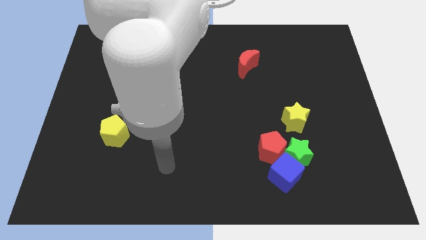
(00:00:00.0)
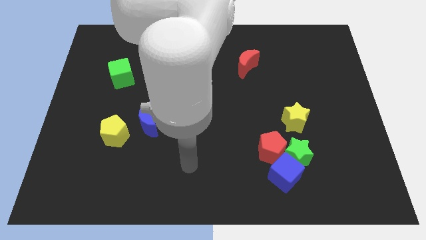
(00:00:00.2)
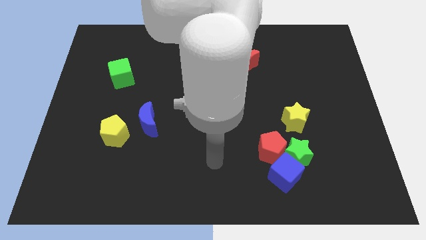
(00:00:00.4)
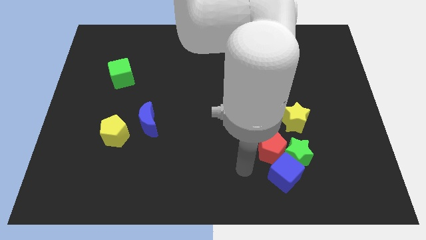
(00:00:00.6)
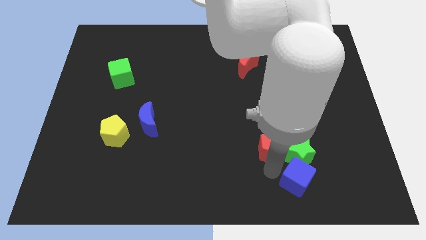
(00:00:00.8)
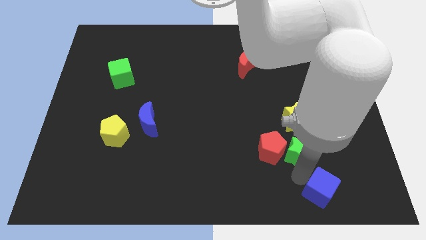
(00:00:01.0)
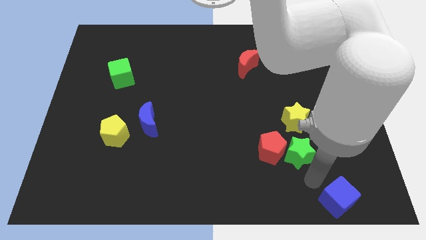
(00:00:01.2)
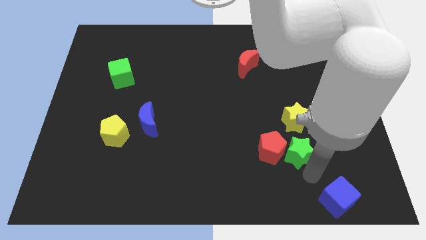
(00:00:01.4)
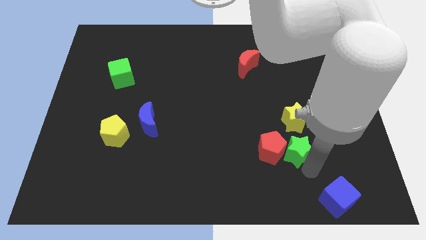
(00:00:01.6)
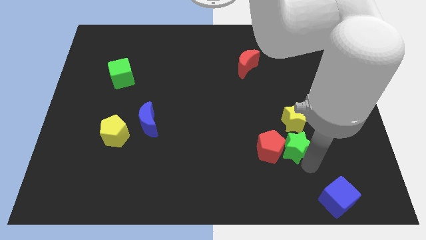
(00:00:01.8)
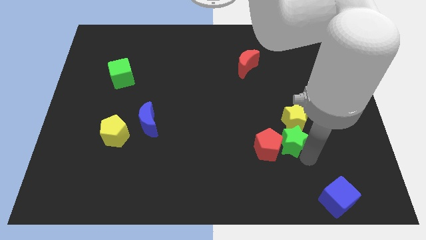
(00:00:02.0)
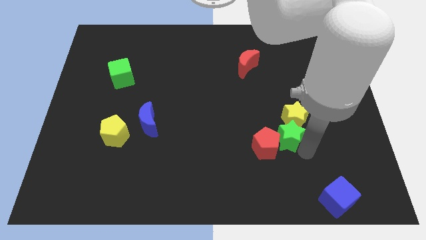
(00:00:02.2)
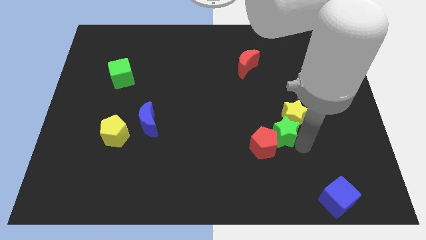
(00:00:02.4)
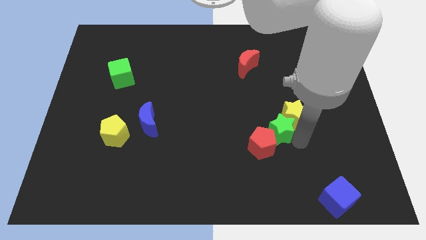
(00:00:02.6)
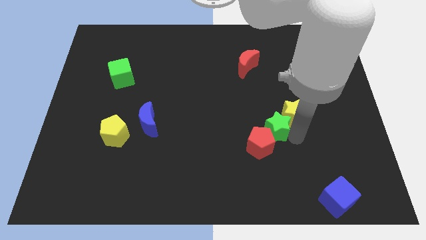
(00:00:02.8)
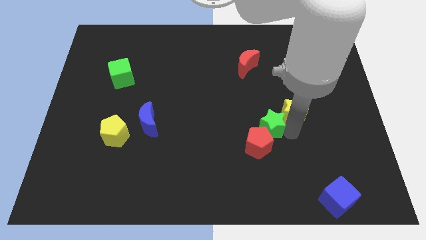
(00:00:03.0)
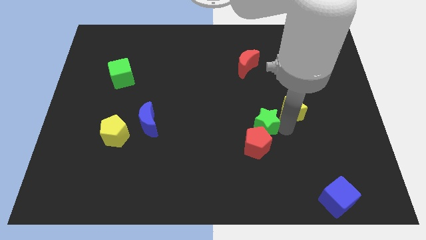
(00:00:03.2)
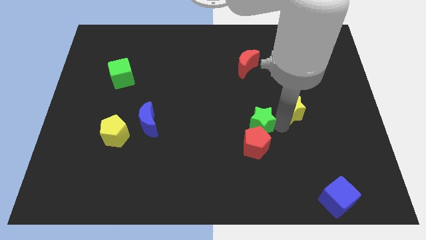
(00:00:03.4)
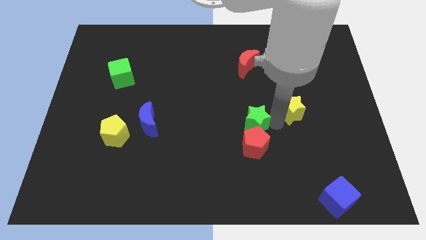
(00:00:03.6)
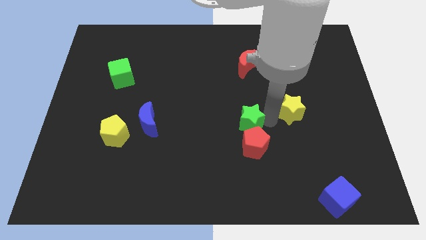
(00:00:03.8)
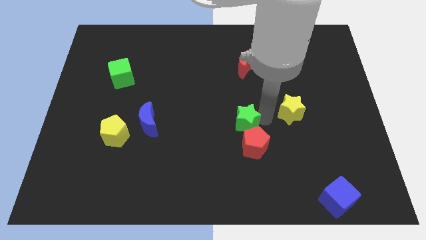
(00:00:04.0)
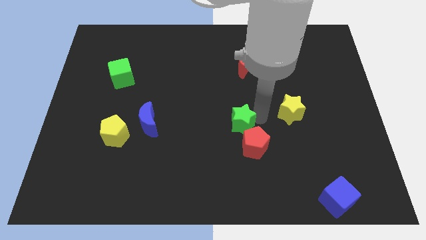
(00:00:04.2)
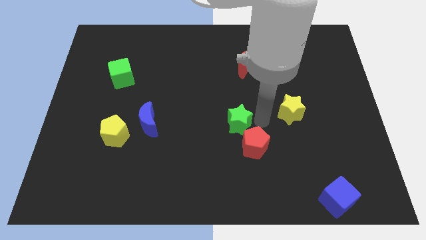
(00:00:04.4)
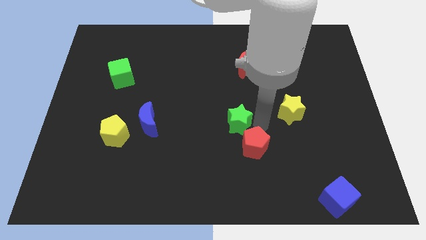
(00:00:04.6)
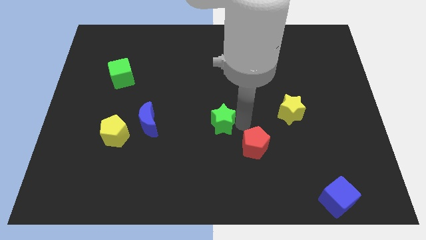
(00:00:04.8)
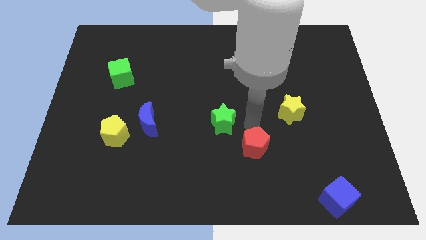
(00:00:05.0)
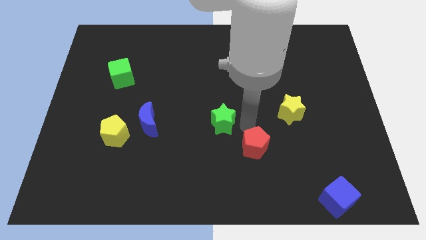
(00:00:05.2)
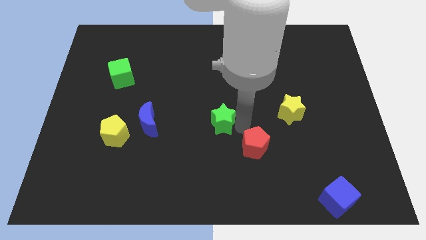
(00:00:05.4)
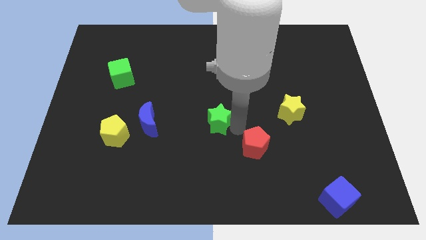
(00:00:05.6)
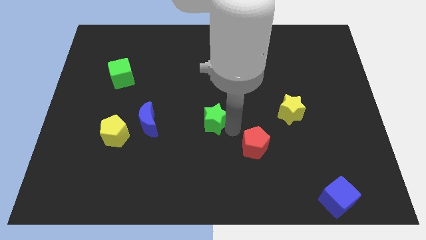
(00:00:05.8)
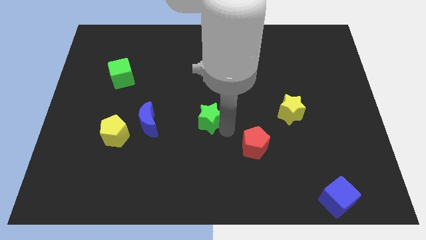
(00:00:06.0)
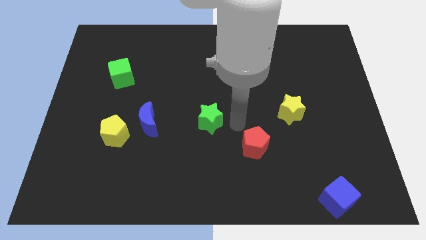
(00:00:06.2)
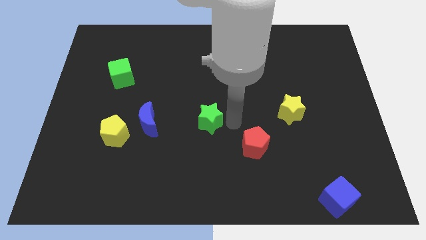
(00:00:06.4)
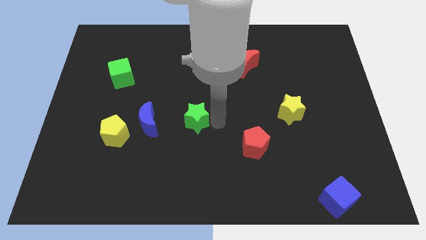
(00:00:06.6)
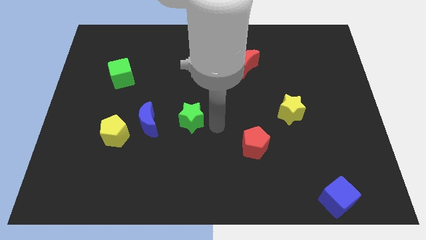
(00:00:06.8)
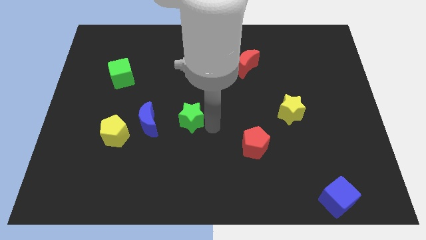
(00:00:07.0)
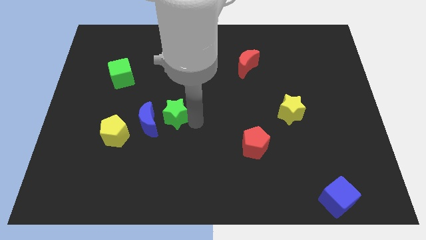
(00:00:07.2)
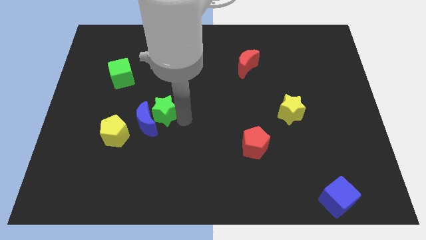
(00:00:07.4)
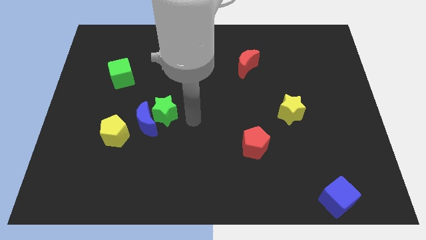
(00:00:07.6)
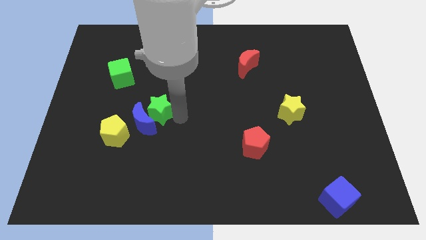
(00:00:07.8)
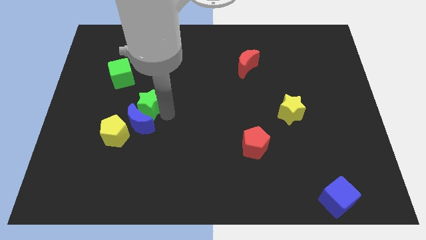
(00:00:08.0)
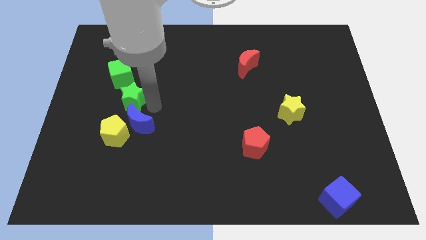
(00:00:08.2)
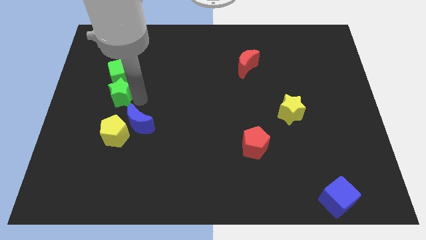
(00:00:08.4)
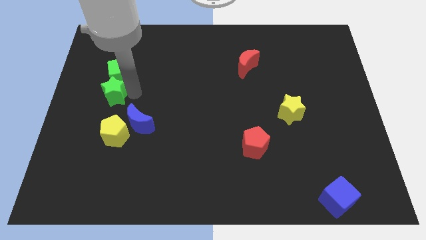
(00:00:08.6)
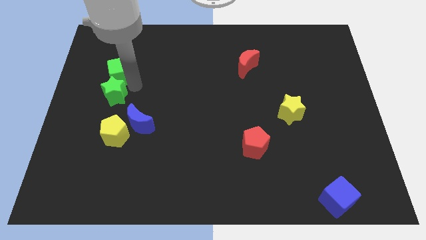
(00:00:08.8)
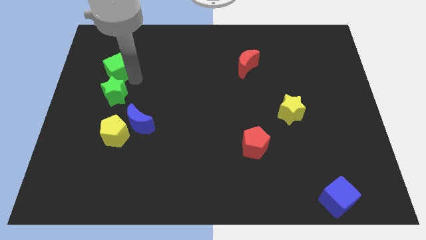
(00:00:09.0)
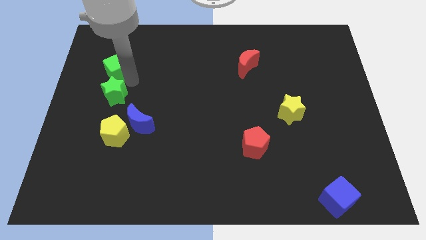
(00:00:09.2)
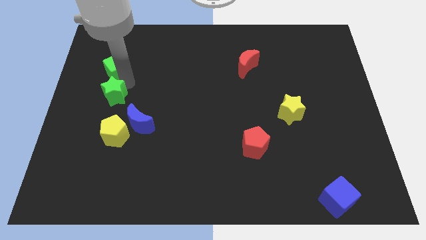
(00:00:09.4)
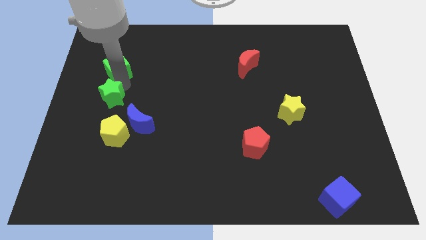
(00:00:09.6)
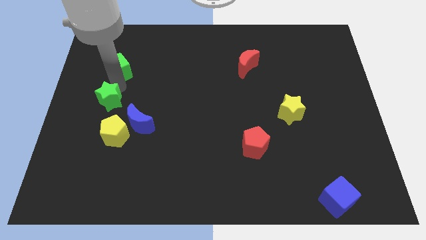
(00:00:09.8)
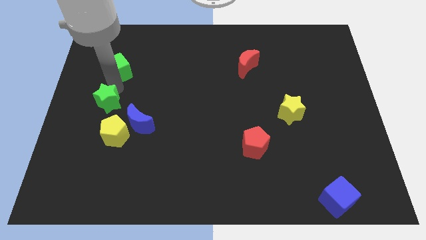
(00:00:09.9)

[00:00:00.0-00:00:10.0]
put the green star to the left side of the board

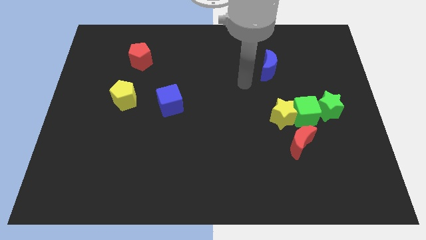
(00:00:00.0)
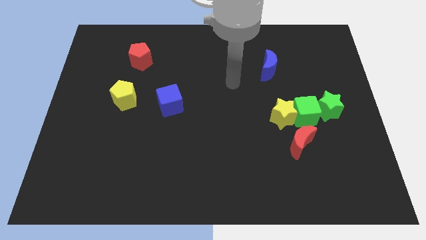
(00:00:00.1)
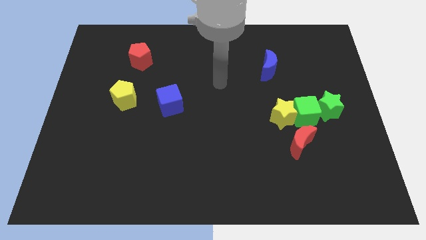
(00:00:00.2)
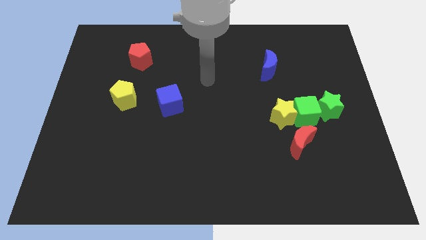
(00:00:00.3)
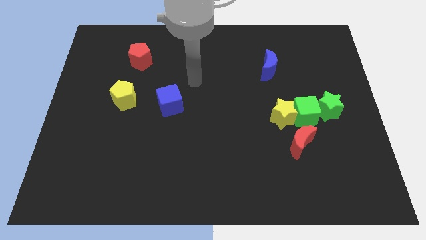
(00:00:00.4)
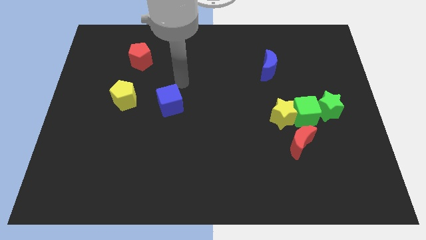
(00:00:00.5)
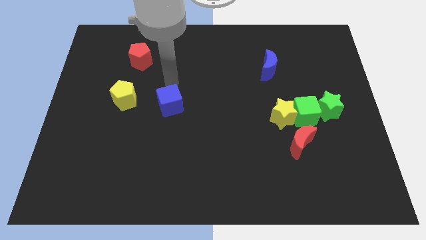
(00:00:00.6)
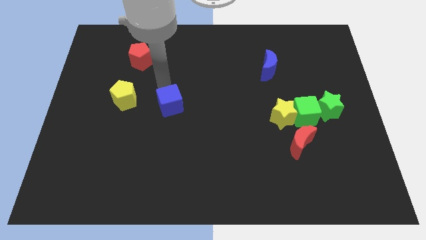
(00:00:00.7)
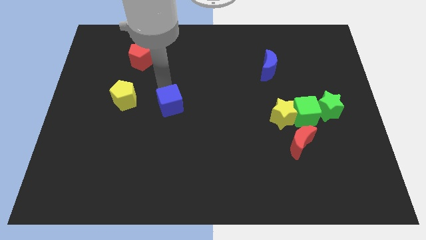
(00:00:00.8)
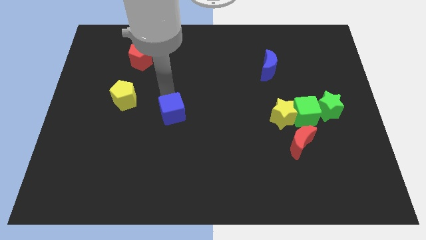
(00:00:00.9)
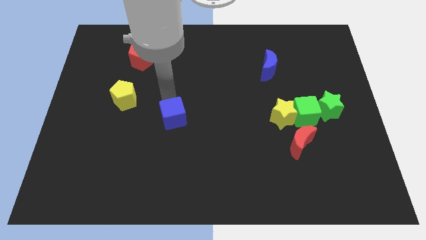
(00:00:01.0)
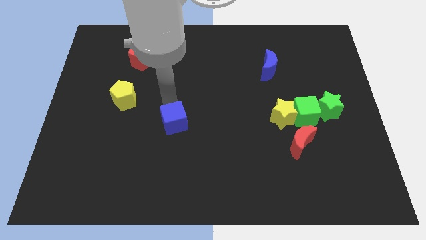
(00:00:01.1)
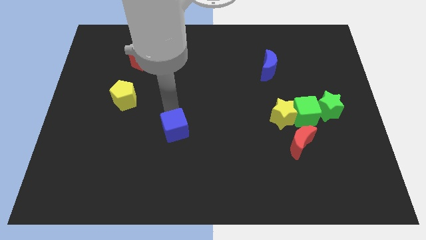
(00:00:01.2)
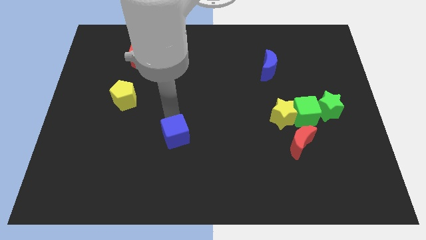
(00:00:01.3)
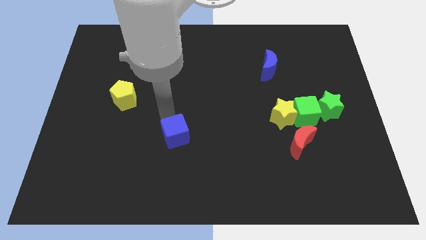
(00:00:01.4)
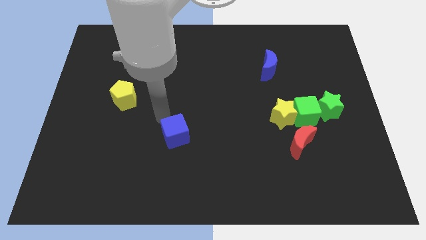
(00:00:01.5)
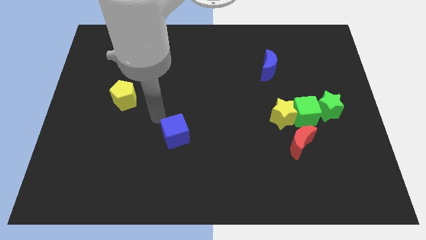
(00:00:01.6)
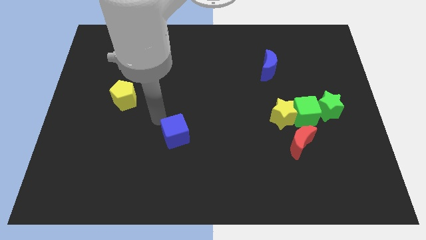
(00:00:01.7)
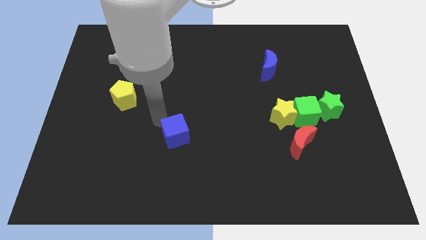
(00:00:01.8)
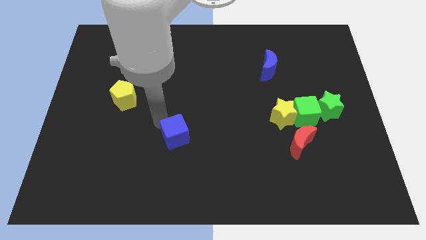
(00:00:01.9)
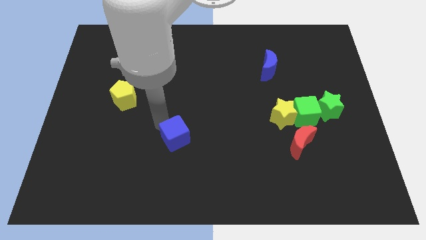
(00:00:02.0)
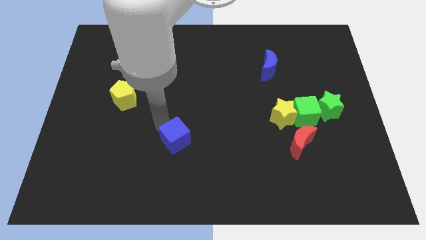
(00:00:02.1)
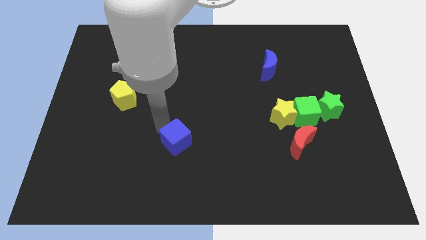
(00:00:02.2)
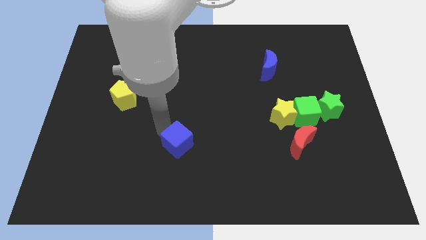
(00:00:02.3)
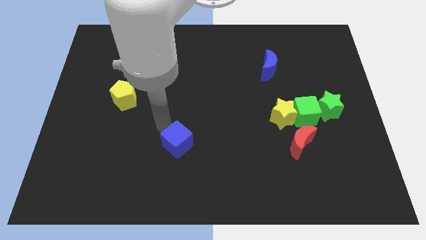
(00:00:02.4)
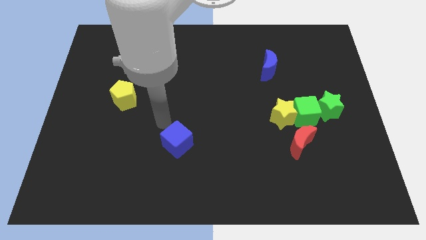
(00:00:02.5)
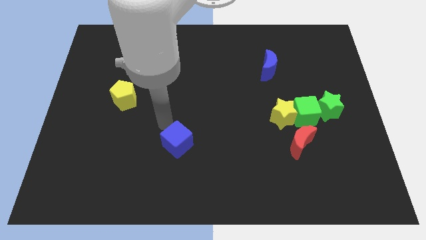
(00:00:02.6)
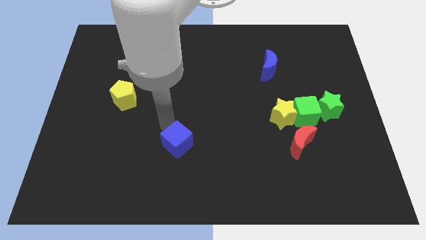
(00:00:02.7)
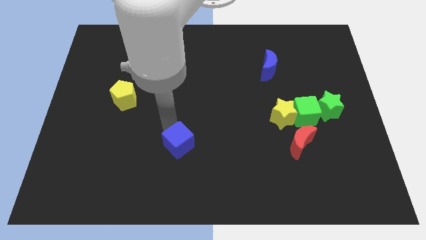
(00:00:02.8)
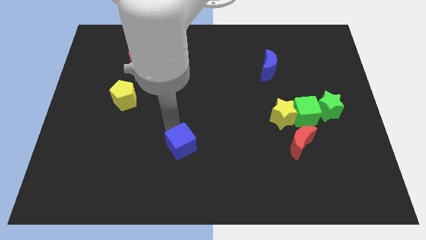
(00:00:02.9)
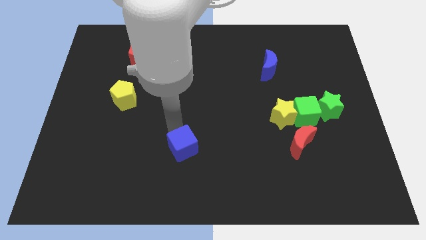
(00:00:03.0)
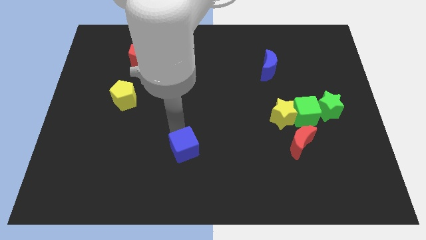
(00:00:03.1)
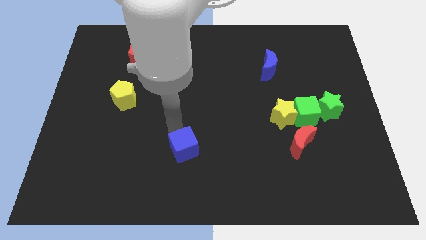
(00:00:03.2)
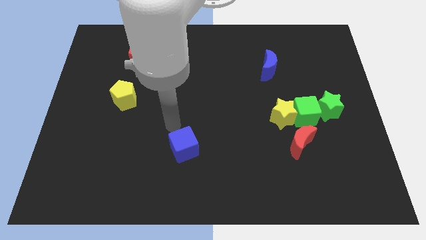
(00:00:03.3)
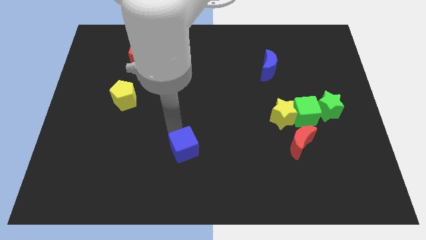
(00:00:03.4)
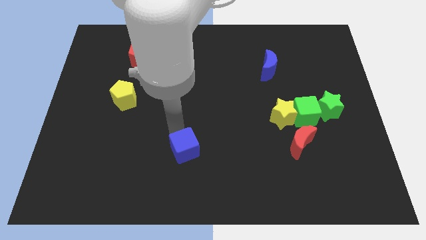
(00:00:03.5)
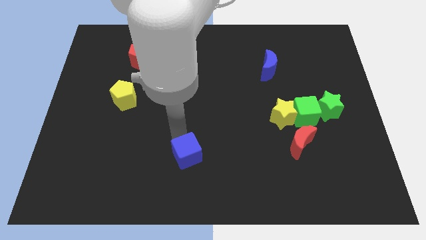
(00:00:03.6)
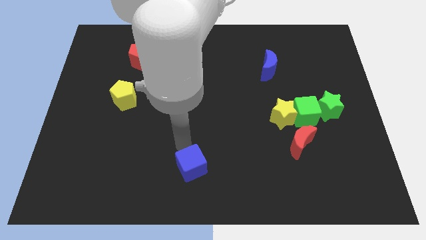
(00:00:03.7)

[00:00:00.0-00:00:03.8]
push the blue cube to the bottom
